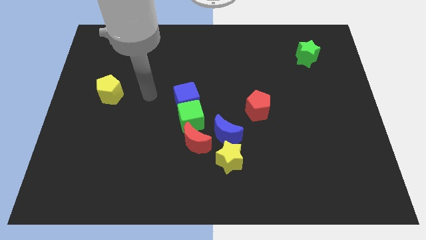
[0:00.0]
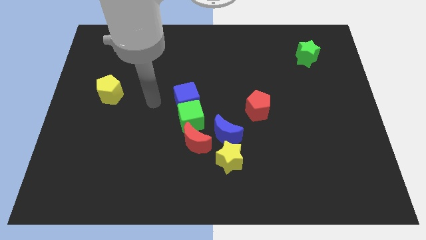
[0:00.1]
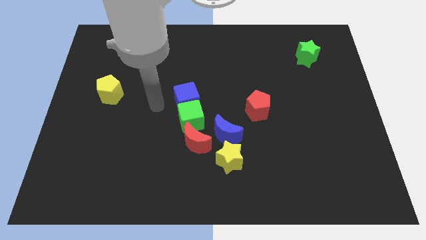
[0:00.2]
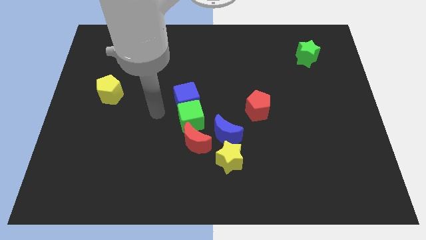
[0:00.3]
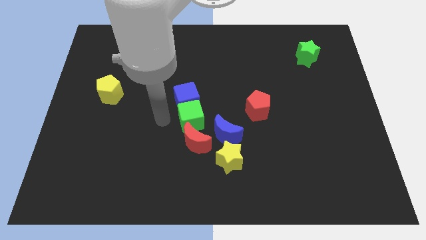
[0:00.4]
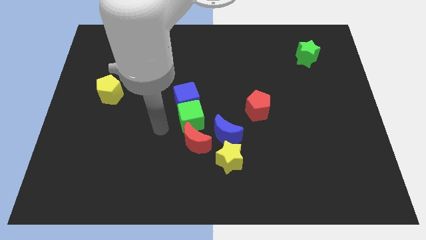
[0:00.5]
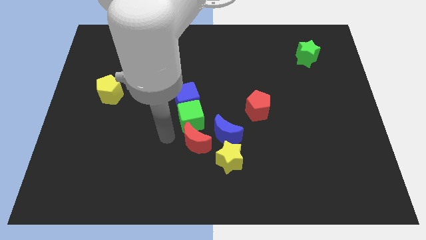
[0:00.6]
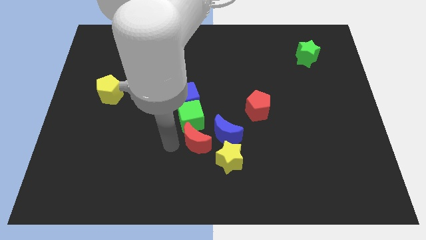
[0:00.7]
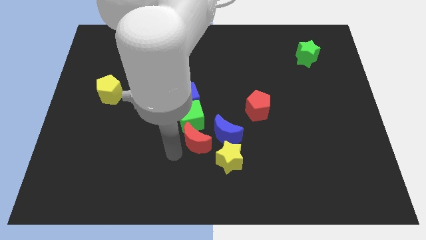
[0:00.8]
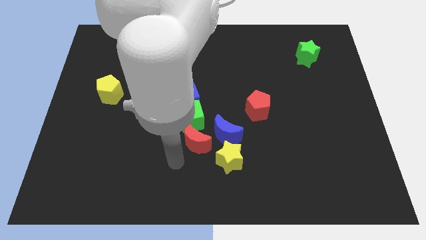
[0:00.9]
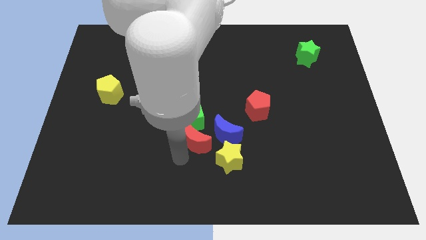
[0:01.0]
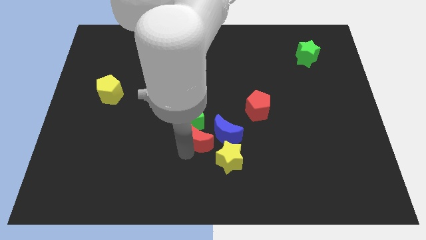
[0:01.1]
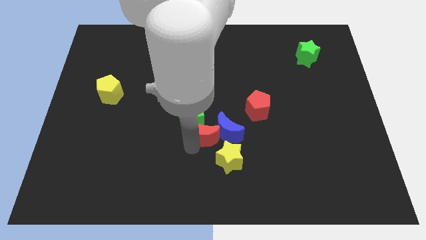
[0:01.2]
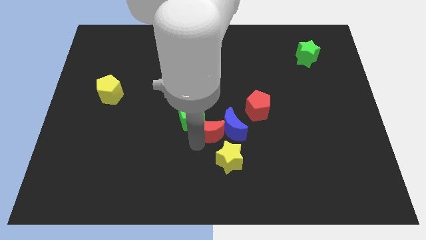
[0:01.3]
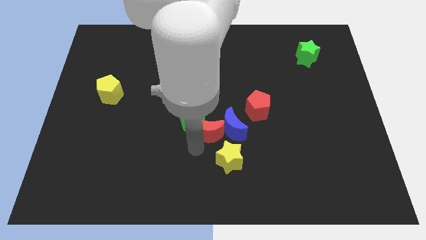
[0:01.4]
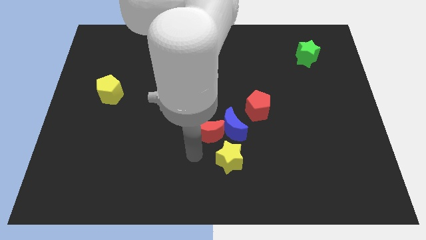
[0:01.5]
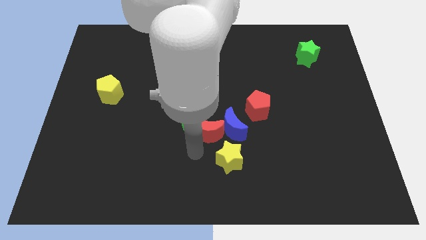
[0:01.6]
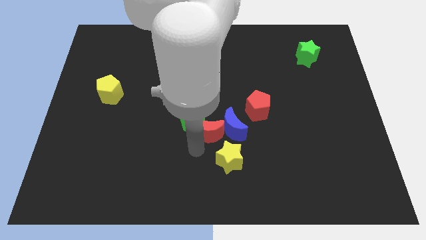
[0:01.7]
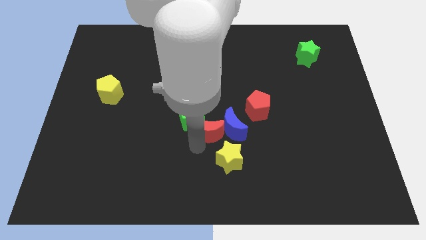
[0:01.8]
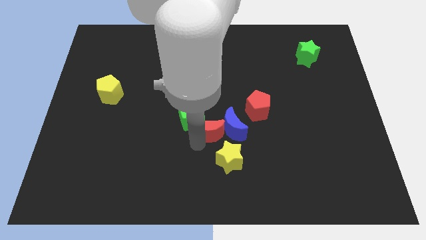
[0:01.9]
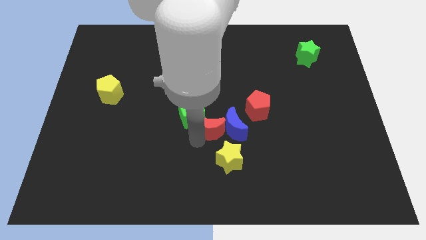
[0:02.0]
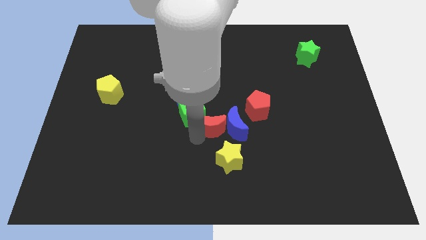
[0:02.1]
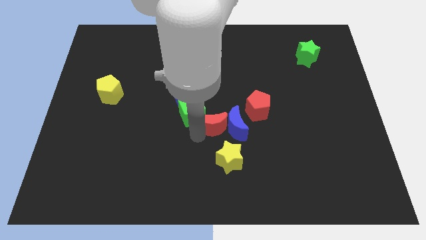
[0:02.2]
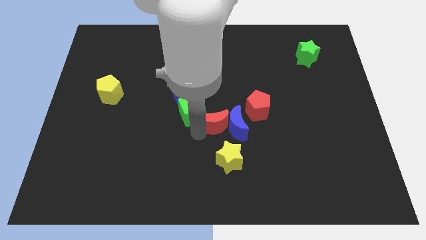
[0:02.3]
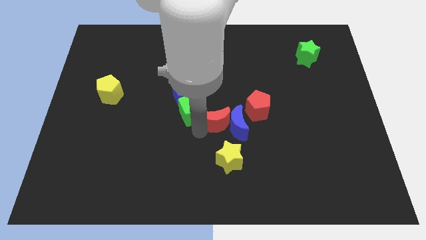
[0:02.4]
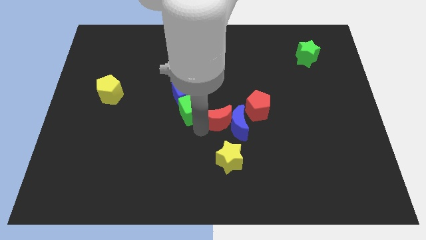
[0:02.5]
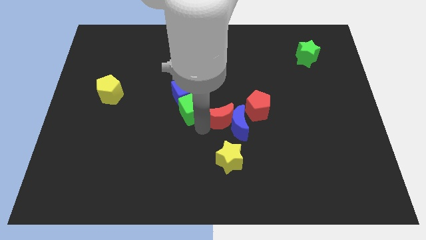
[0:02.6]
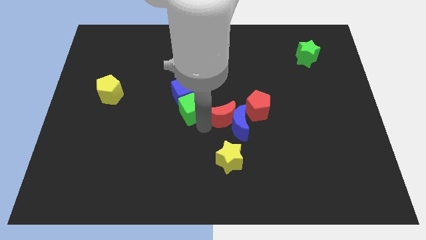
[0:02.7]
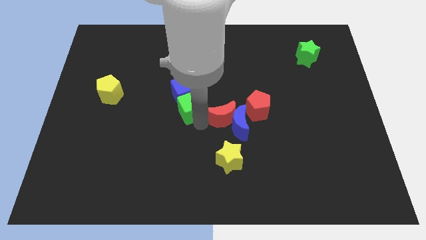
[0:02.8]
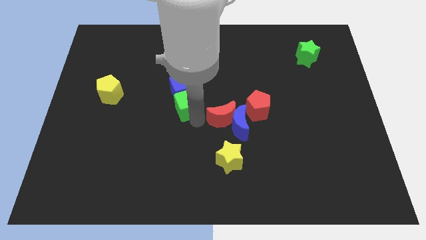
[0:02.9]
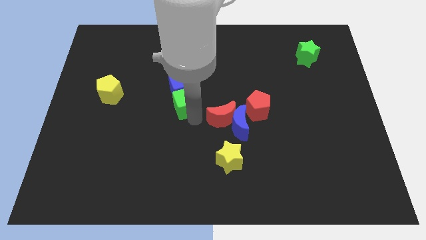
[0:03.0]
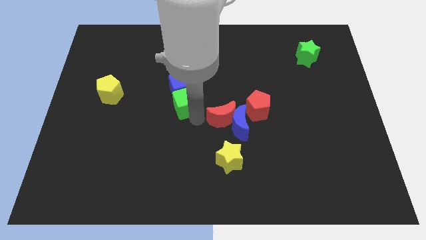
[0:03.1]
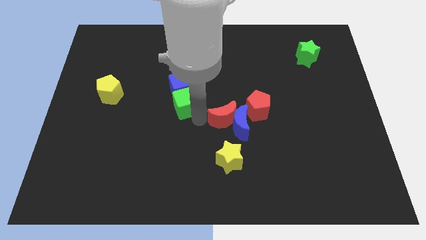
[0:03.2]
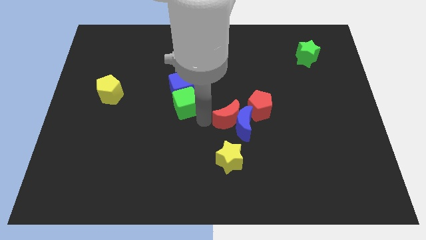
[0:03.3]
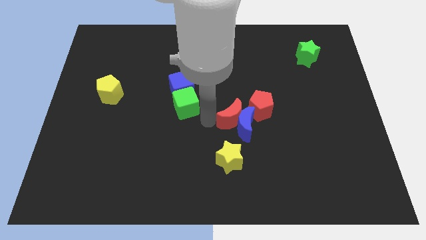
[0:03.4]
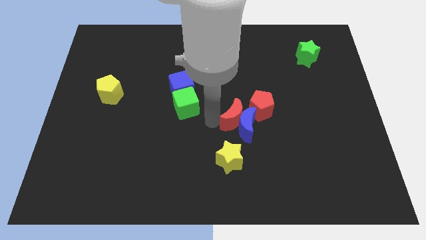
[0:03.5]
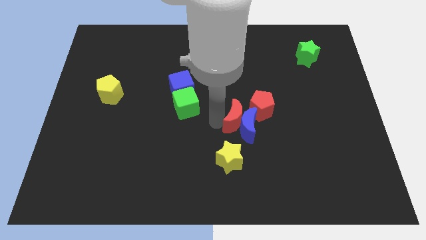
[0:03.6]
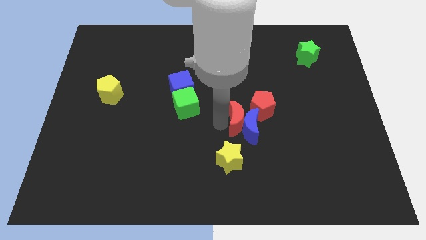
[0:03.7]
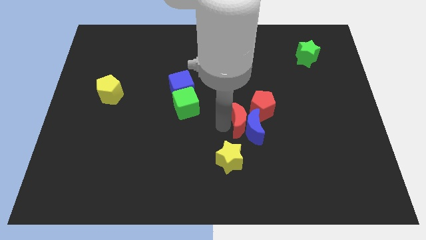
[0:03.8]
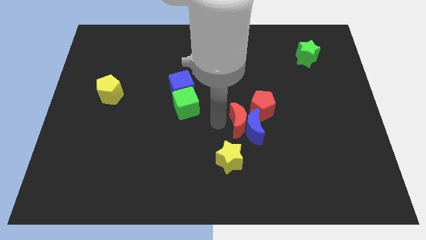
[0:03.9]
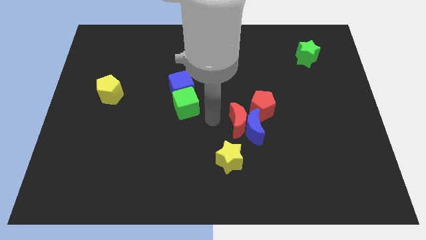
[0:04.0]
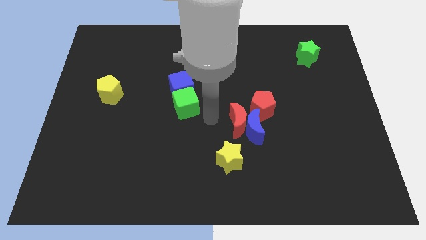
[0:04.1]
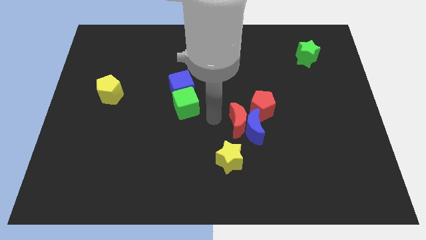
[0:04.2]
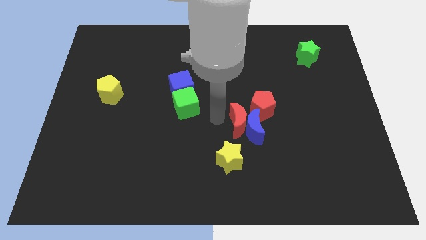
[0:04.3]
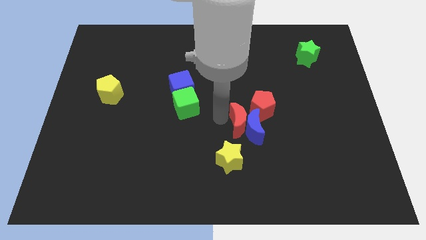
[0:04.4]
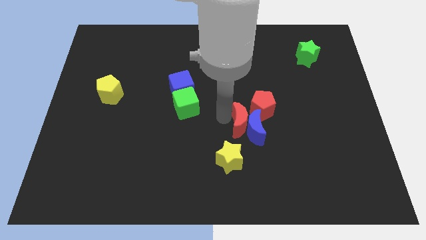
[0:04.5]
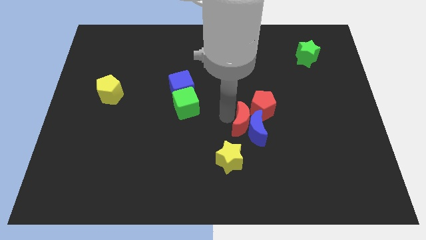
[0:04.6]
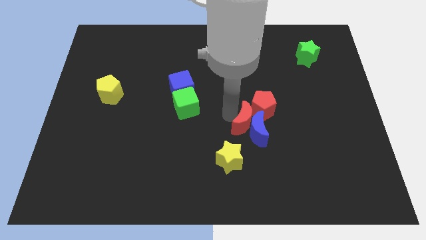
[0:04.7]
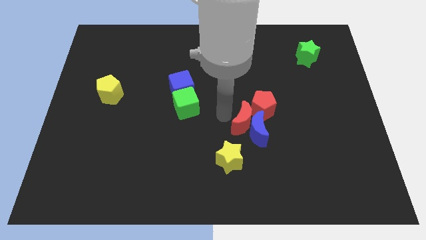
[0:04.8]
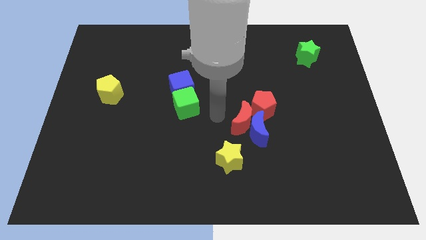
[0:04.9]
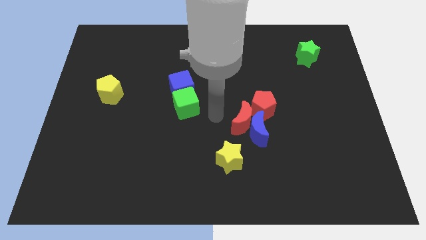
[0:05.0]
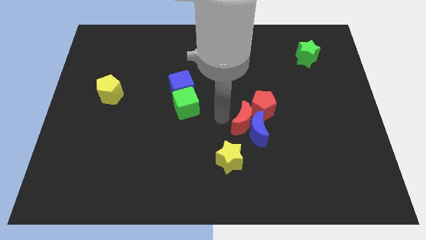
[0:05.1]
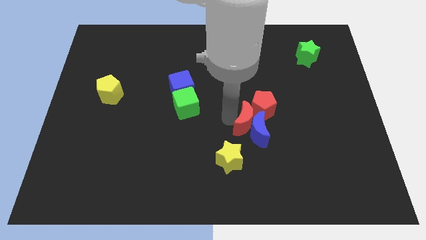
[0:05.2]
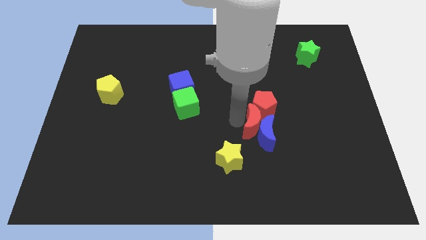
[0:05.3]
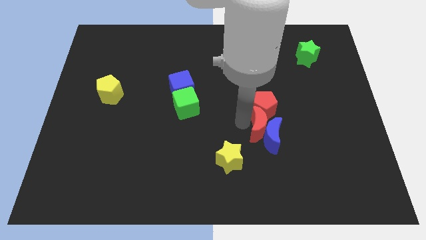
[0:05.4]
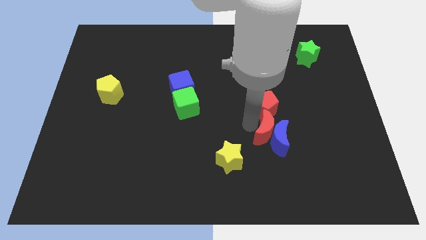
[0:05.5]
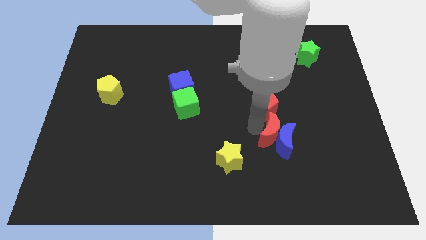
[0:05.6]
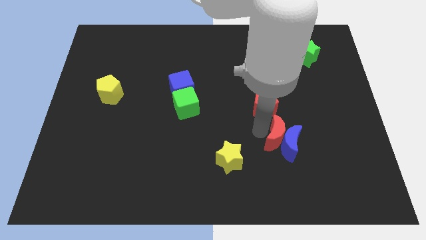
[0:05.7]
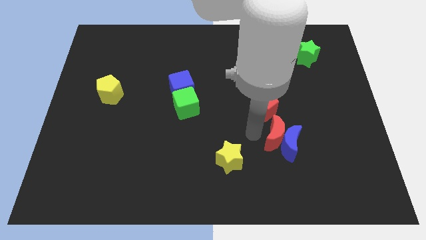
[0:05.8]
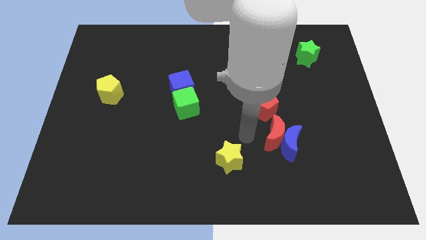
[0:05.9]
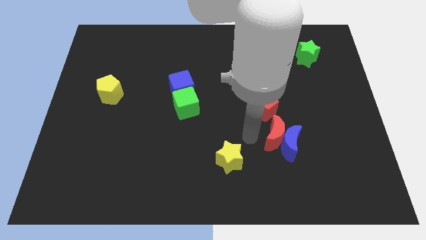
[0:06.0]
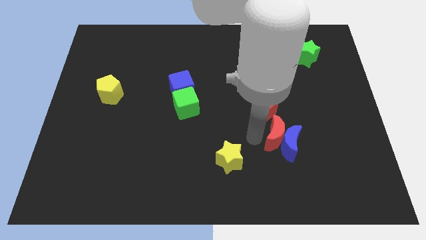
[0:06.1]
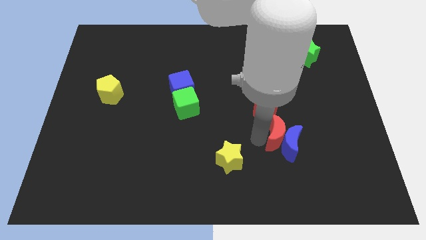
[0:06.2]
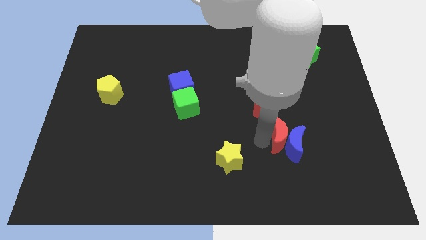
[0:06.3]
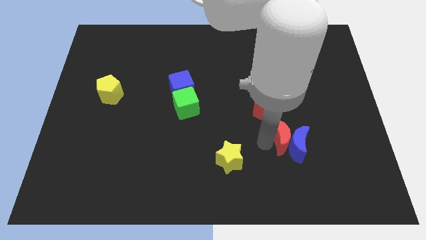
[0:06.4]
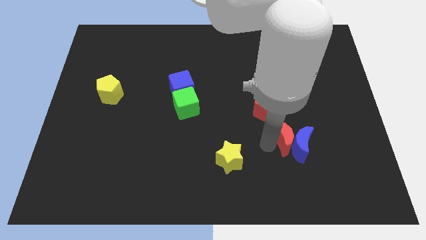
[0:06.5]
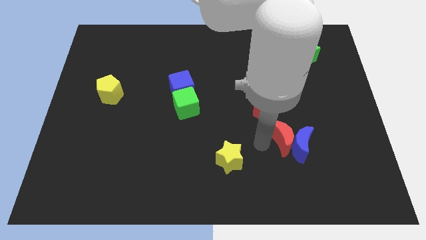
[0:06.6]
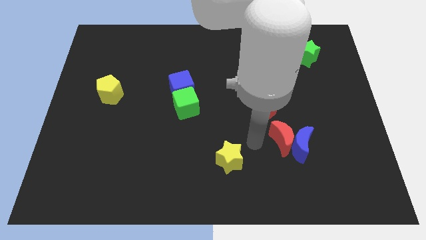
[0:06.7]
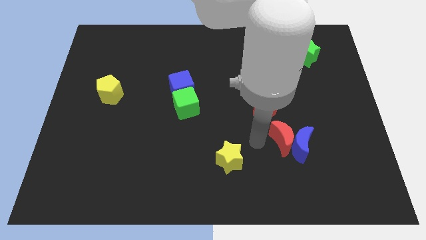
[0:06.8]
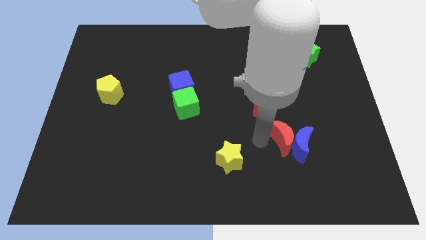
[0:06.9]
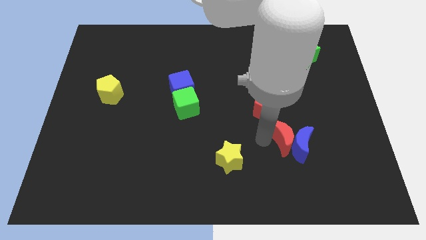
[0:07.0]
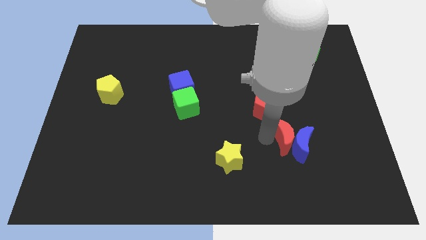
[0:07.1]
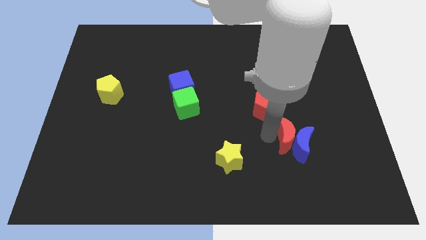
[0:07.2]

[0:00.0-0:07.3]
move the red moon right

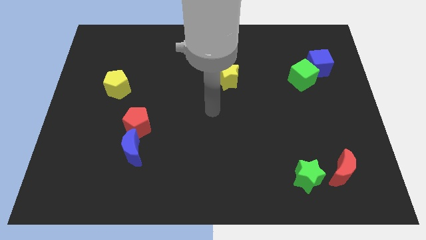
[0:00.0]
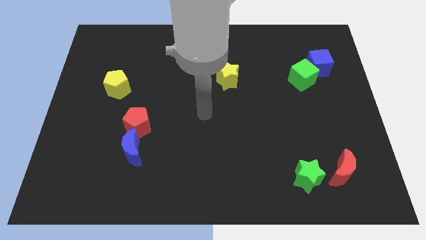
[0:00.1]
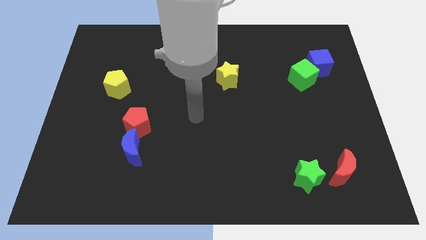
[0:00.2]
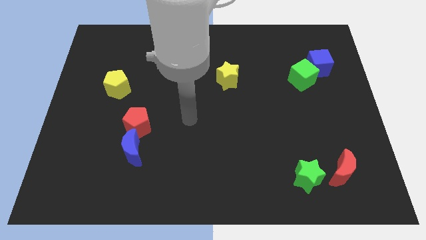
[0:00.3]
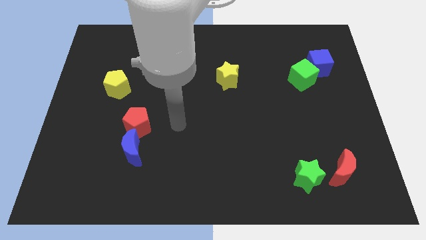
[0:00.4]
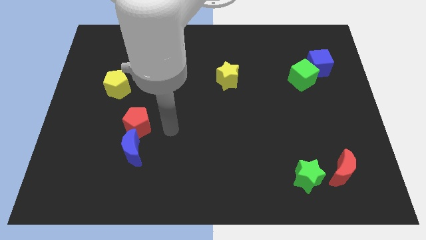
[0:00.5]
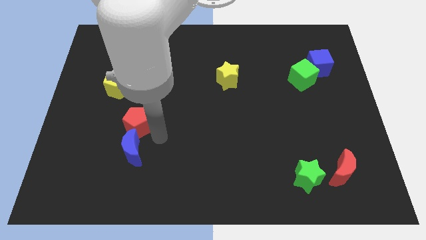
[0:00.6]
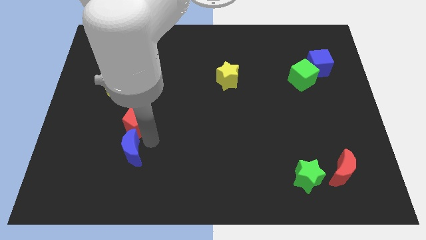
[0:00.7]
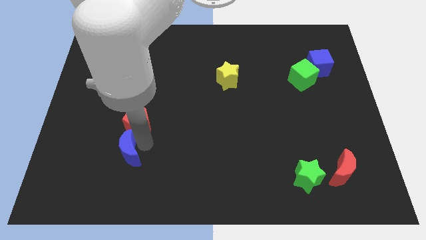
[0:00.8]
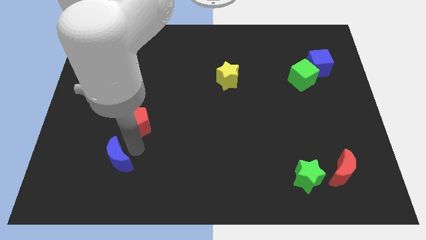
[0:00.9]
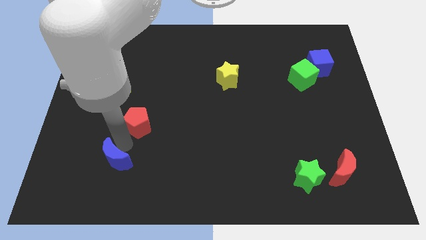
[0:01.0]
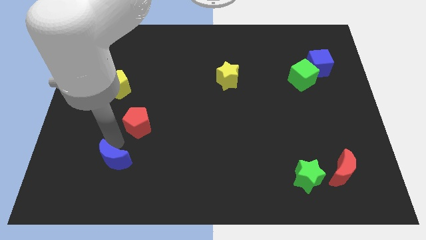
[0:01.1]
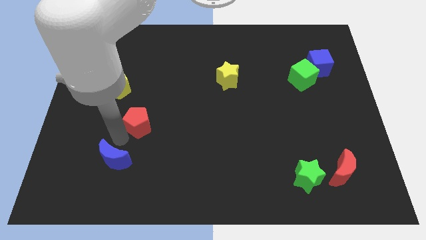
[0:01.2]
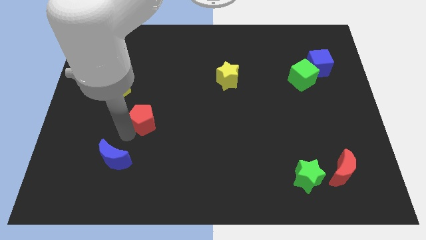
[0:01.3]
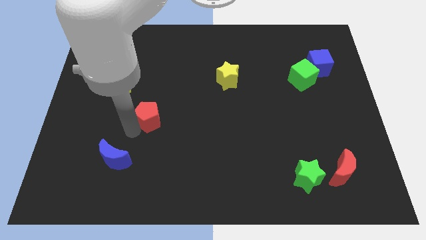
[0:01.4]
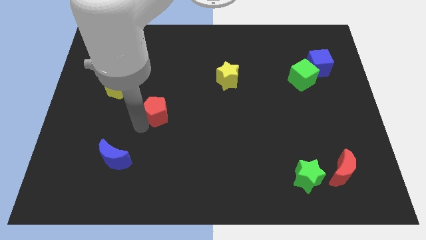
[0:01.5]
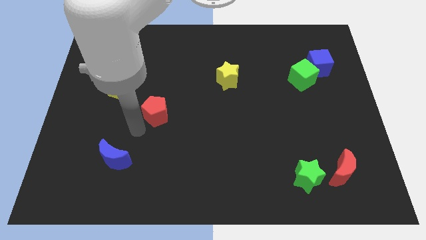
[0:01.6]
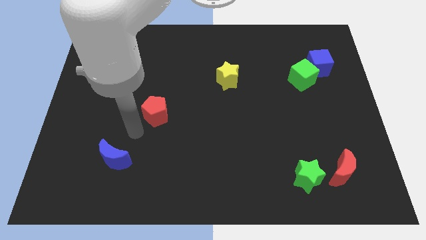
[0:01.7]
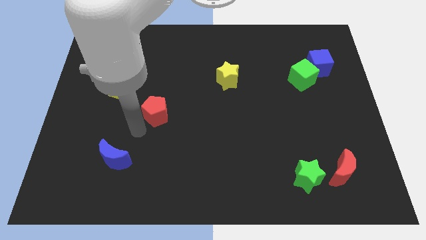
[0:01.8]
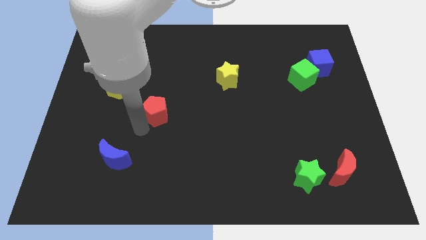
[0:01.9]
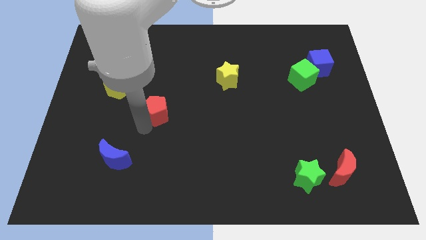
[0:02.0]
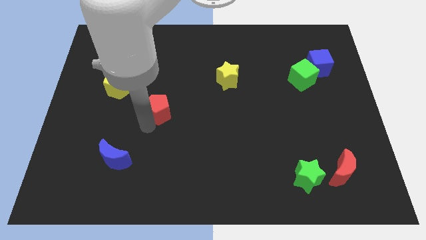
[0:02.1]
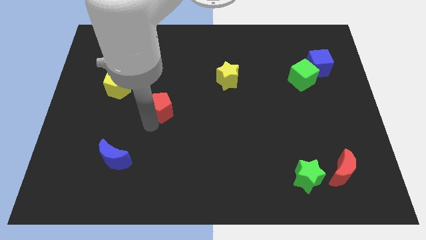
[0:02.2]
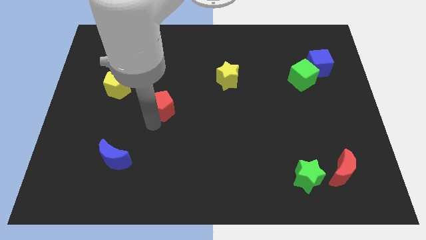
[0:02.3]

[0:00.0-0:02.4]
slide the red pentagon upwards and to the right diagonally a little bit
